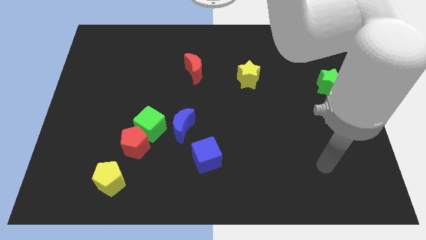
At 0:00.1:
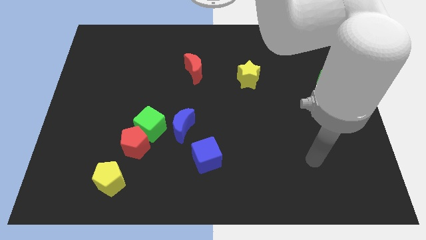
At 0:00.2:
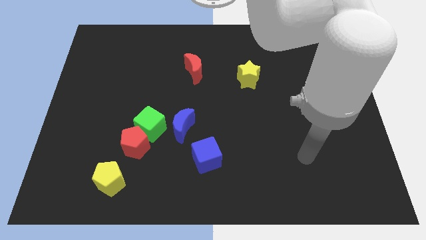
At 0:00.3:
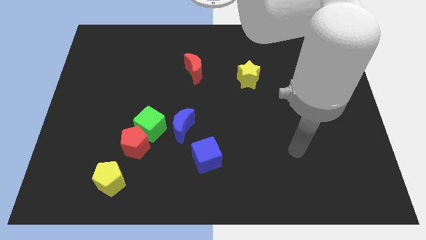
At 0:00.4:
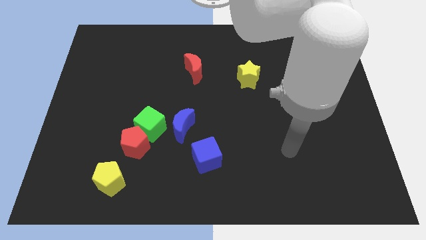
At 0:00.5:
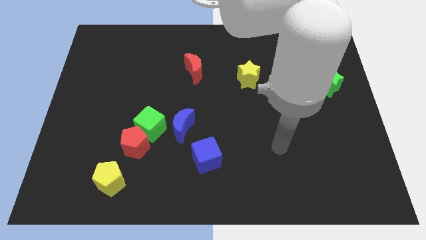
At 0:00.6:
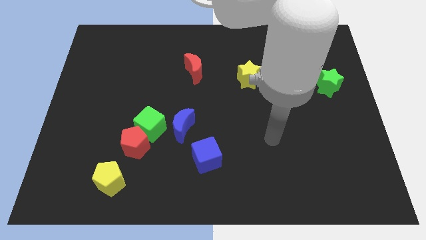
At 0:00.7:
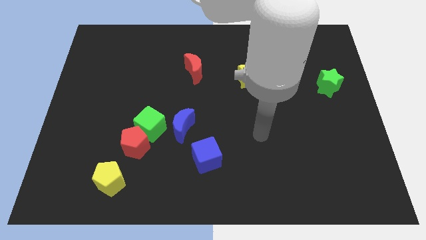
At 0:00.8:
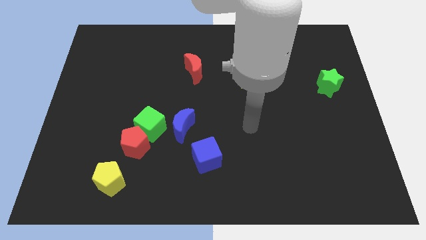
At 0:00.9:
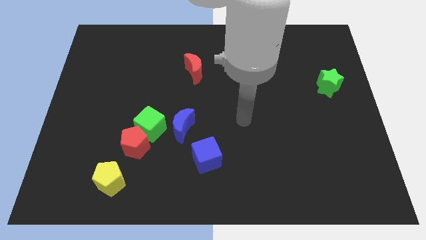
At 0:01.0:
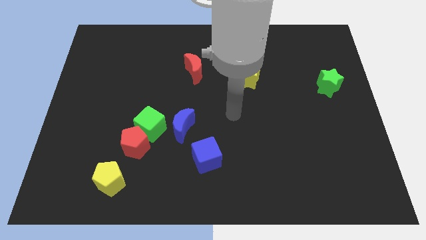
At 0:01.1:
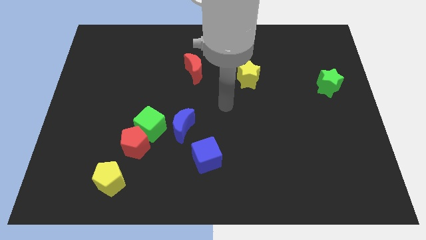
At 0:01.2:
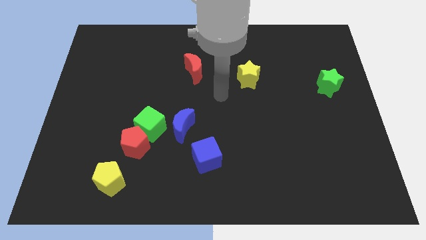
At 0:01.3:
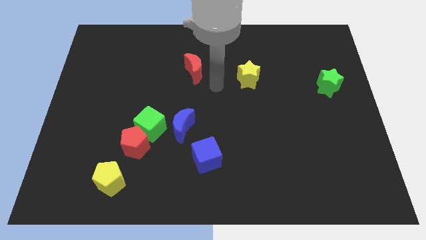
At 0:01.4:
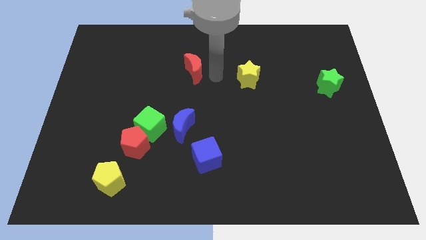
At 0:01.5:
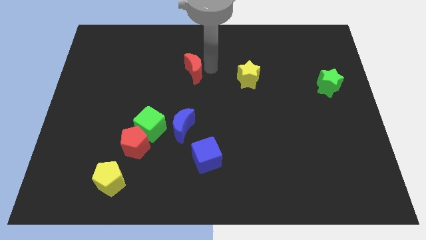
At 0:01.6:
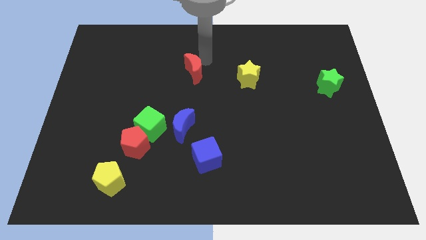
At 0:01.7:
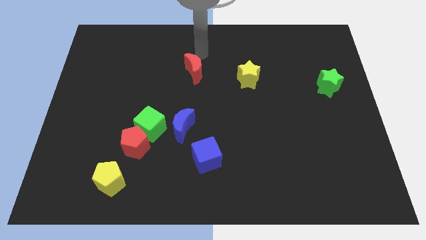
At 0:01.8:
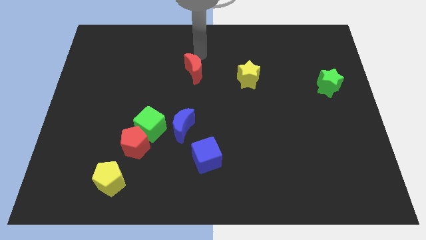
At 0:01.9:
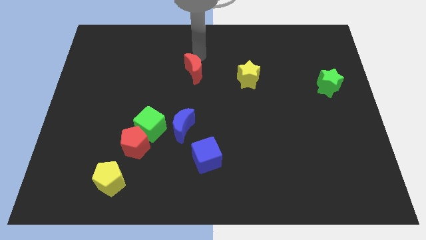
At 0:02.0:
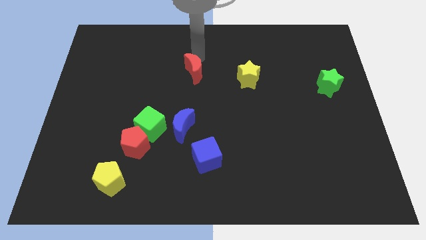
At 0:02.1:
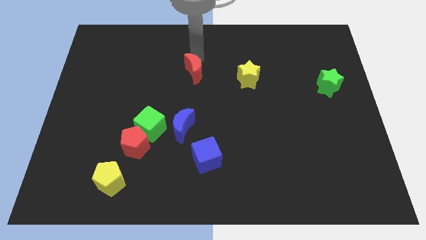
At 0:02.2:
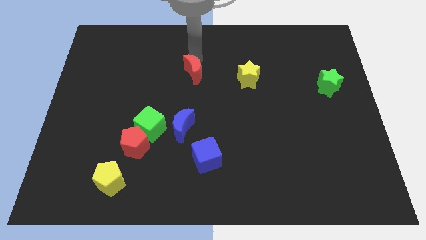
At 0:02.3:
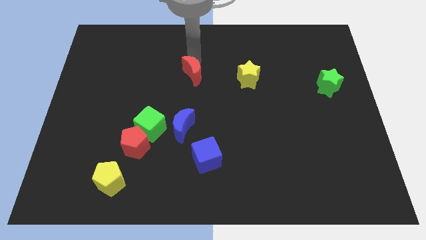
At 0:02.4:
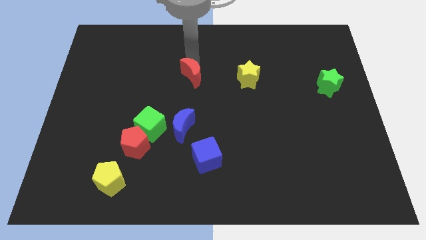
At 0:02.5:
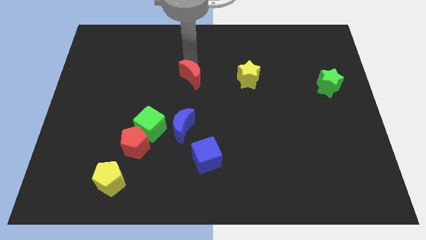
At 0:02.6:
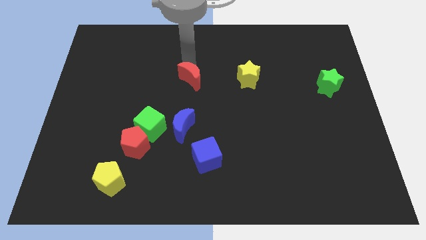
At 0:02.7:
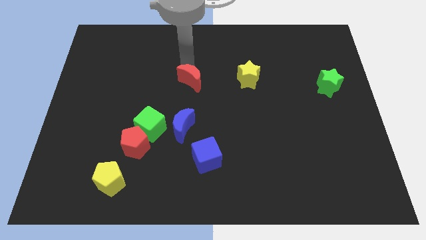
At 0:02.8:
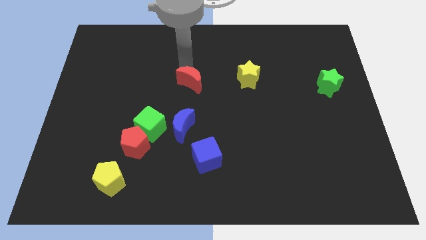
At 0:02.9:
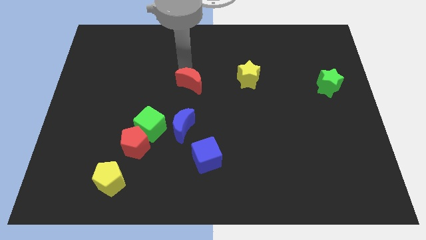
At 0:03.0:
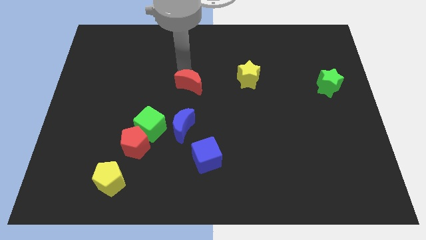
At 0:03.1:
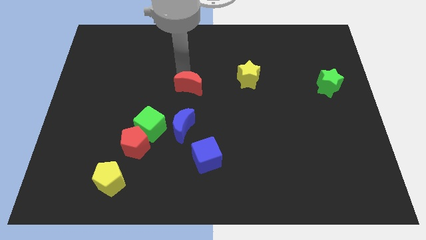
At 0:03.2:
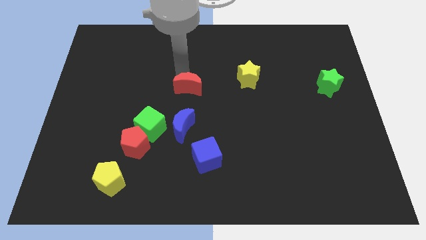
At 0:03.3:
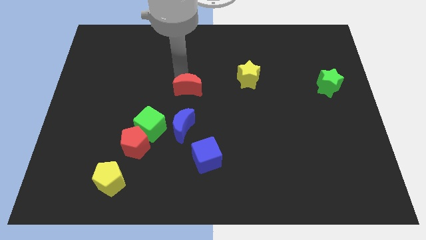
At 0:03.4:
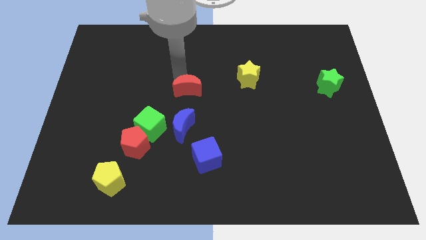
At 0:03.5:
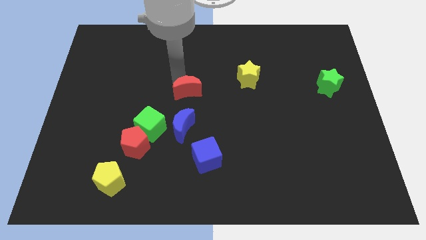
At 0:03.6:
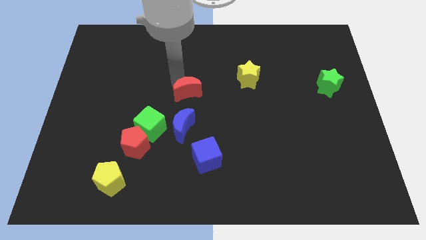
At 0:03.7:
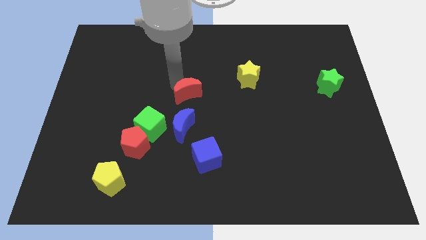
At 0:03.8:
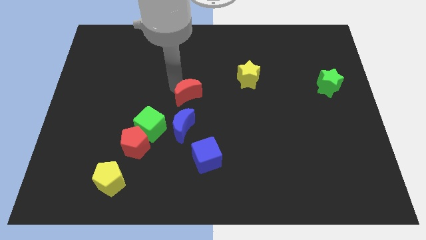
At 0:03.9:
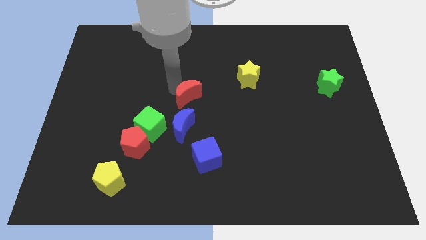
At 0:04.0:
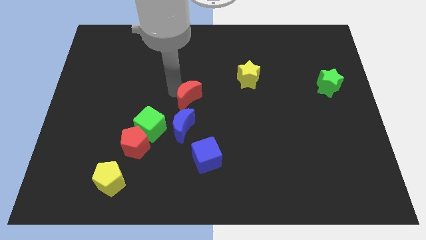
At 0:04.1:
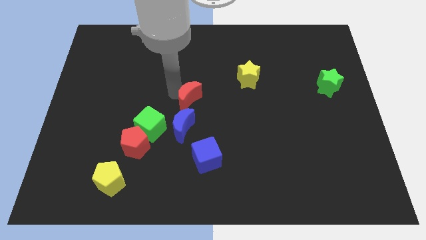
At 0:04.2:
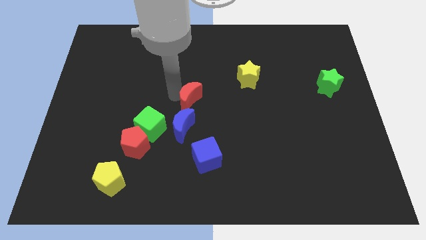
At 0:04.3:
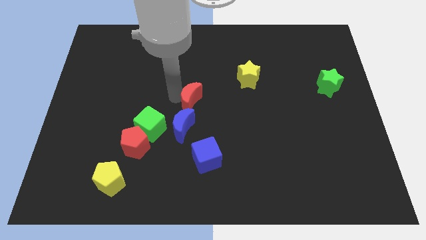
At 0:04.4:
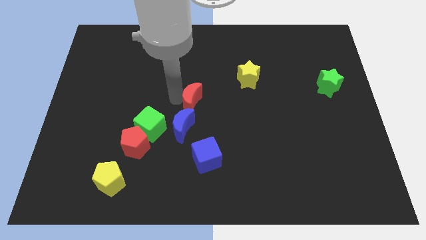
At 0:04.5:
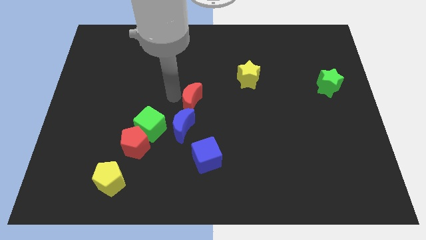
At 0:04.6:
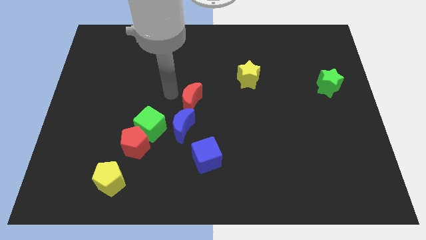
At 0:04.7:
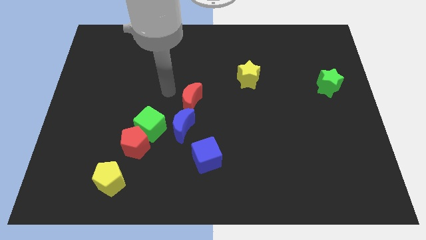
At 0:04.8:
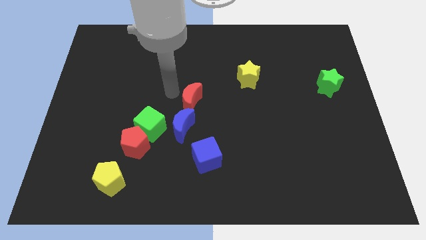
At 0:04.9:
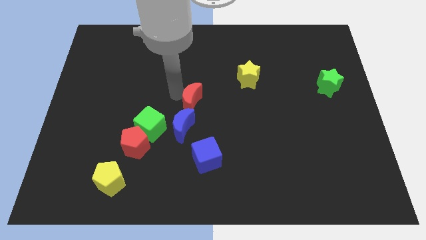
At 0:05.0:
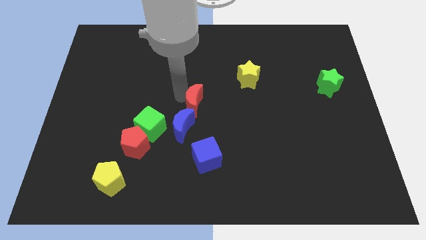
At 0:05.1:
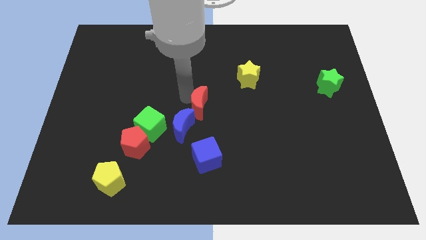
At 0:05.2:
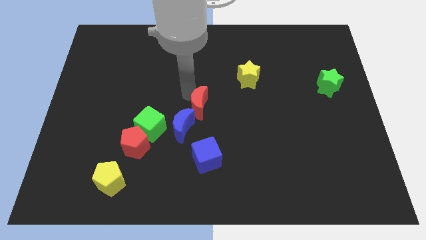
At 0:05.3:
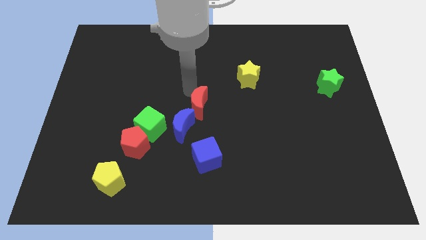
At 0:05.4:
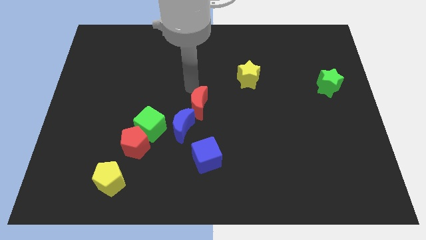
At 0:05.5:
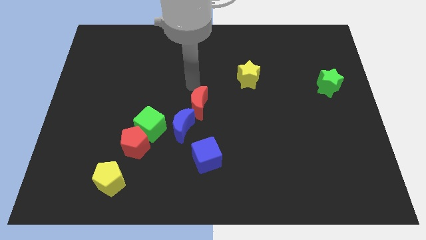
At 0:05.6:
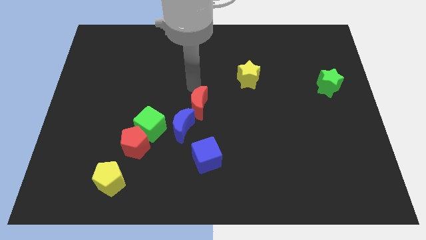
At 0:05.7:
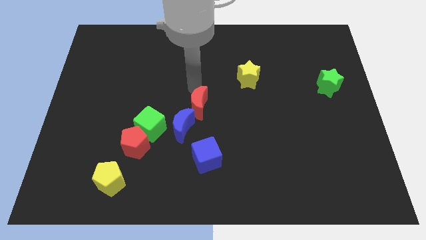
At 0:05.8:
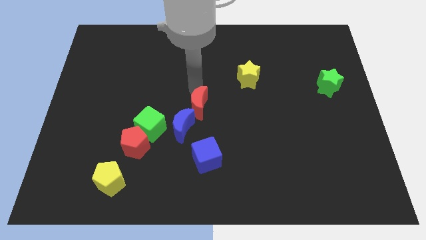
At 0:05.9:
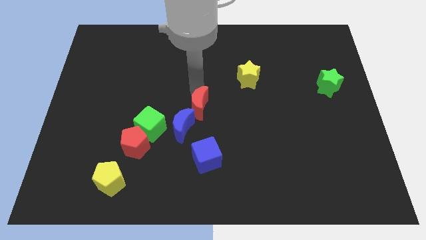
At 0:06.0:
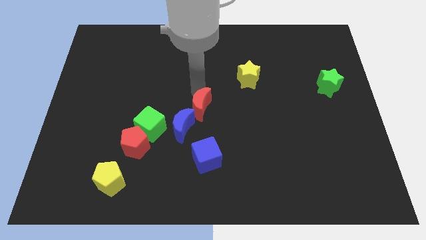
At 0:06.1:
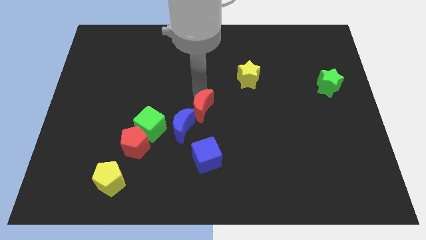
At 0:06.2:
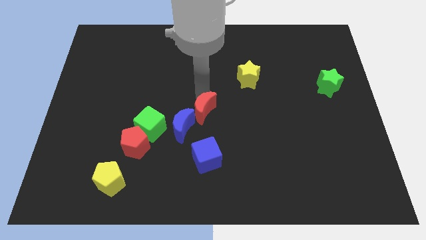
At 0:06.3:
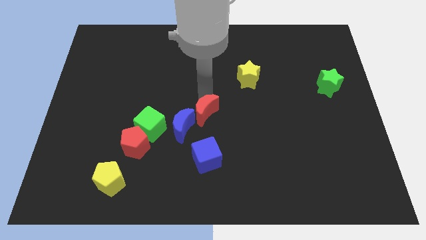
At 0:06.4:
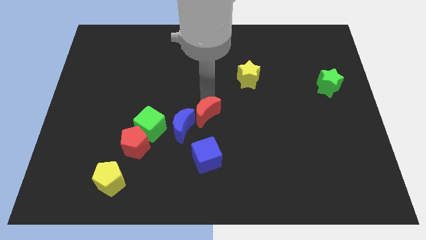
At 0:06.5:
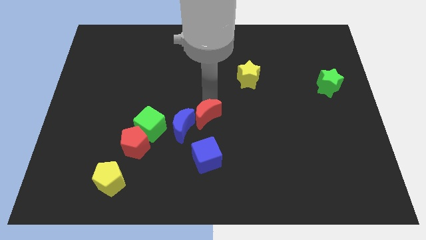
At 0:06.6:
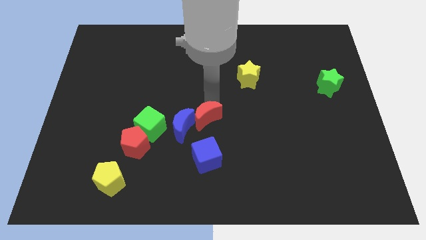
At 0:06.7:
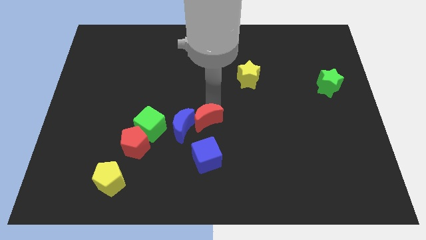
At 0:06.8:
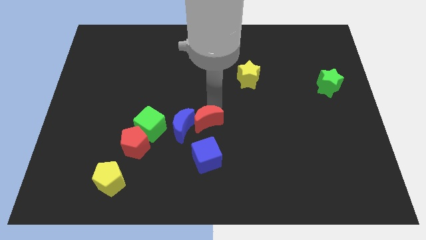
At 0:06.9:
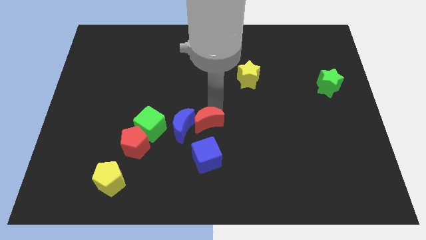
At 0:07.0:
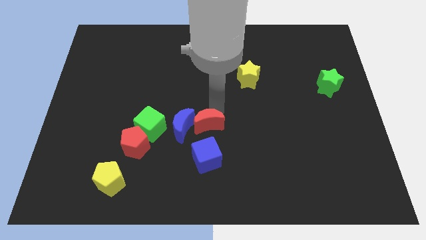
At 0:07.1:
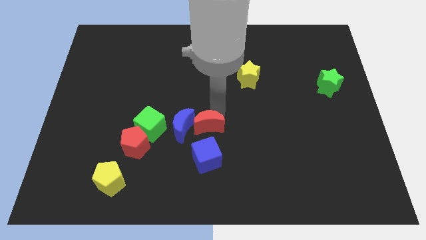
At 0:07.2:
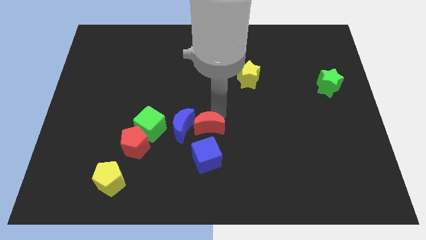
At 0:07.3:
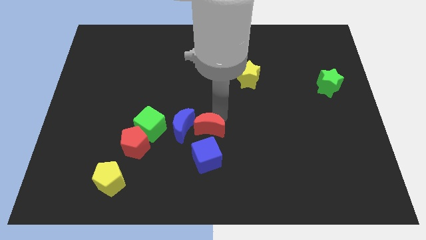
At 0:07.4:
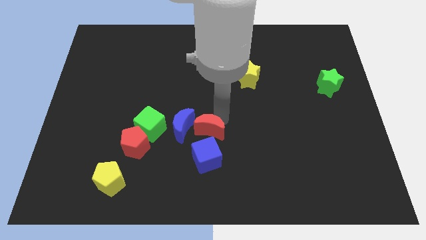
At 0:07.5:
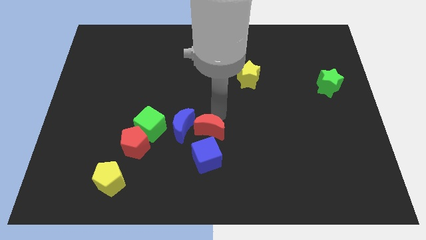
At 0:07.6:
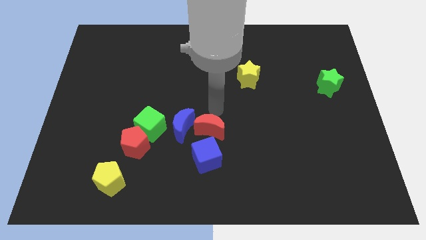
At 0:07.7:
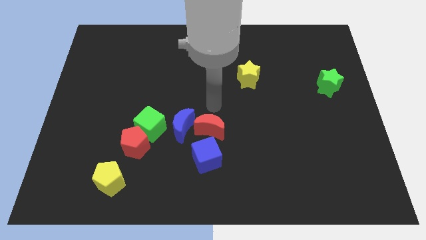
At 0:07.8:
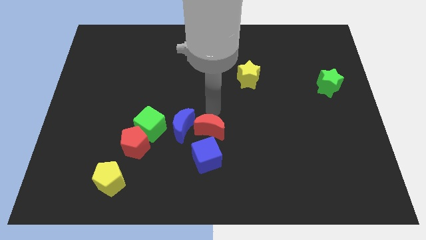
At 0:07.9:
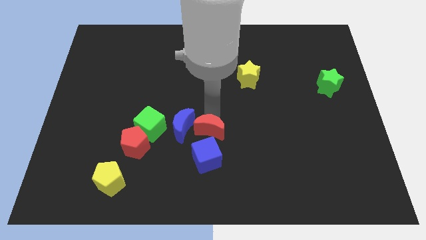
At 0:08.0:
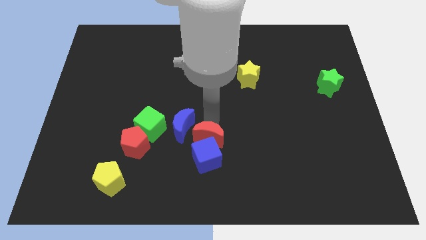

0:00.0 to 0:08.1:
move the red moon towards the blue cube
